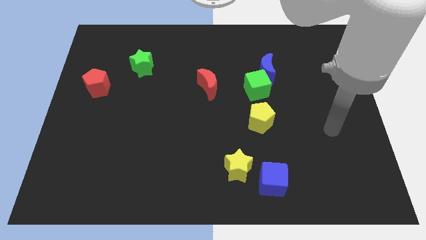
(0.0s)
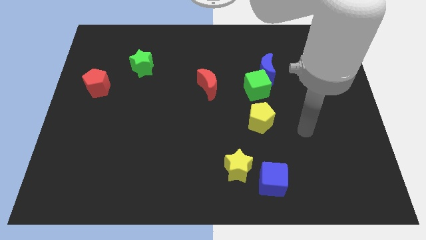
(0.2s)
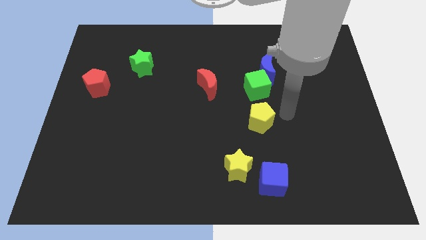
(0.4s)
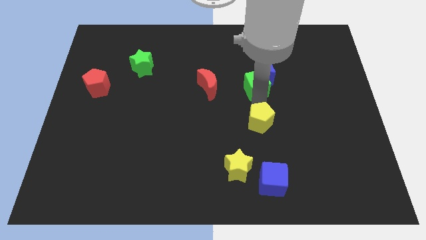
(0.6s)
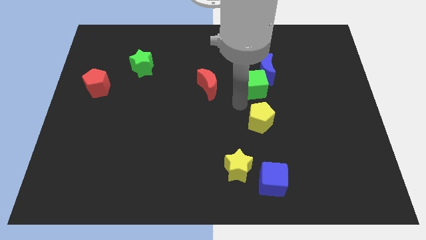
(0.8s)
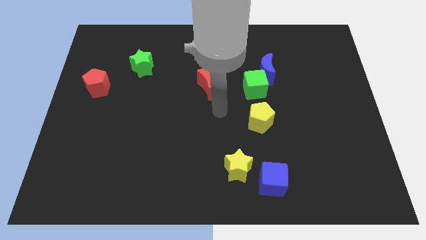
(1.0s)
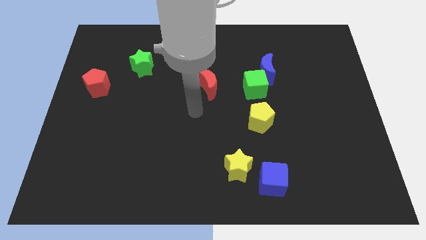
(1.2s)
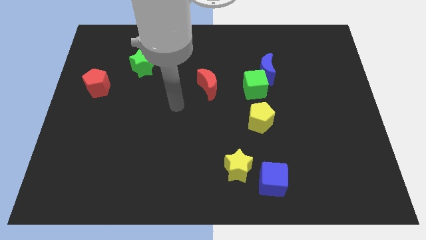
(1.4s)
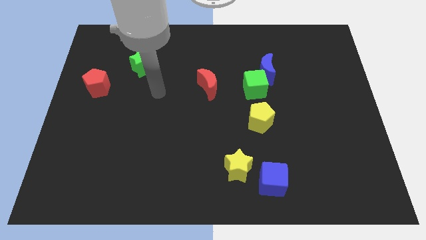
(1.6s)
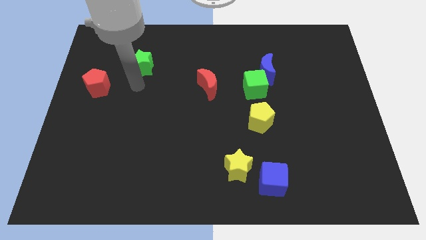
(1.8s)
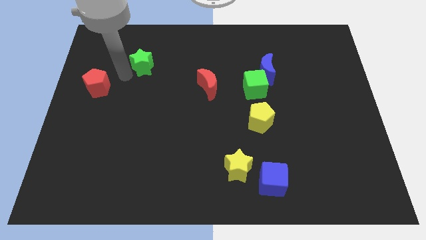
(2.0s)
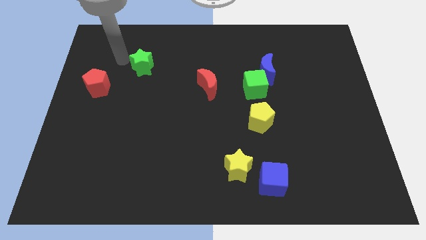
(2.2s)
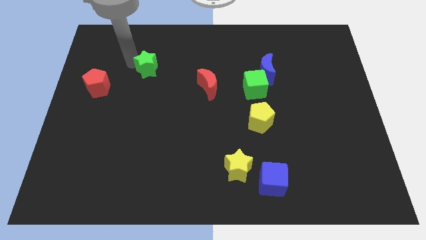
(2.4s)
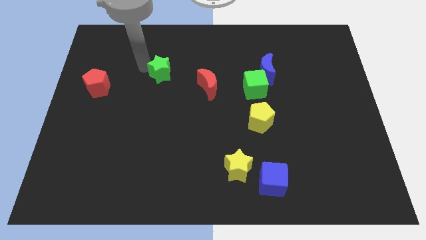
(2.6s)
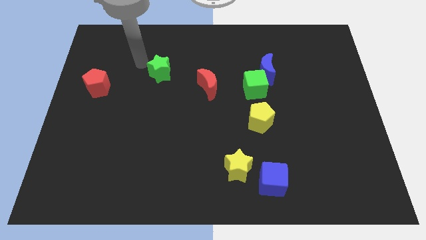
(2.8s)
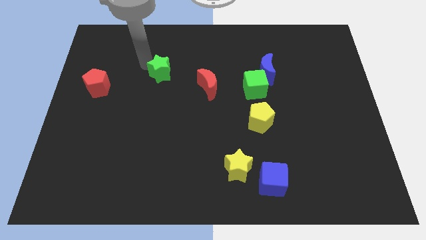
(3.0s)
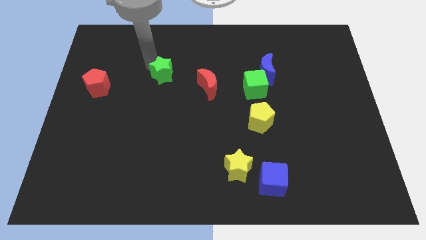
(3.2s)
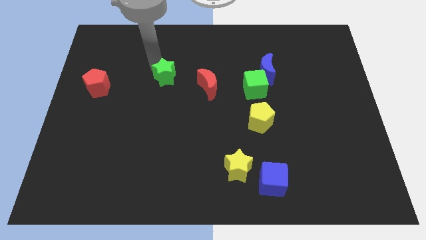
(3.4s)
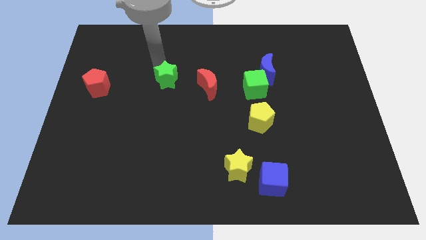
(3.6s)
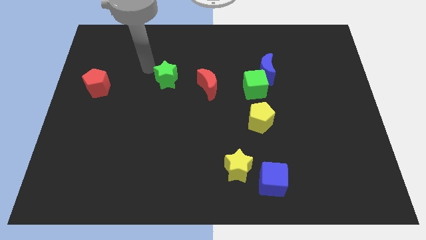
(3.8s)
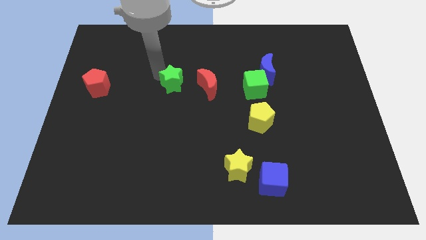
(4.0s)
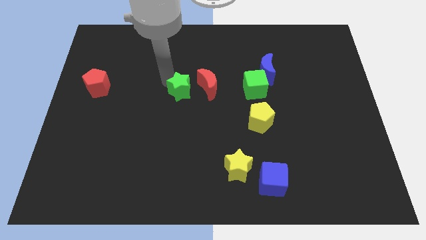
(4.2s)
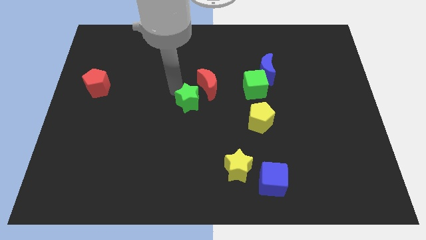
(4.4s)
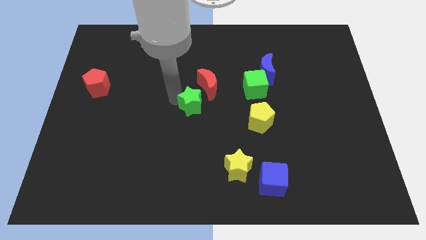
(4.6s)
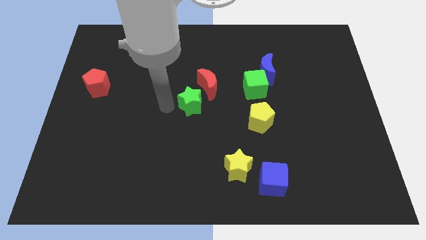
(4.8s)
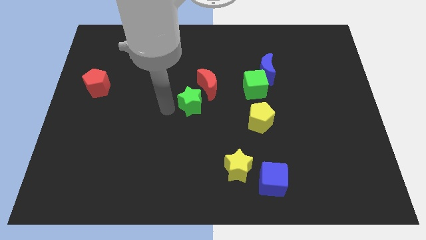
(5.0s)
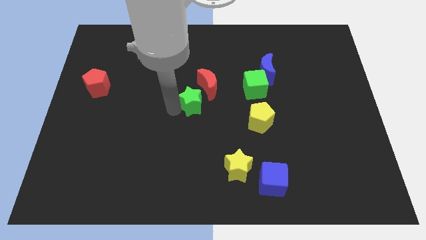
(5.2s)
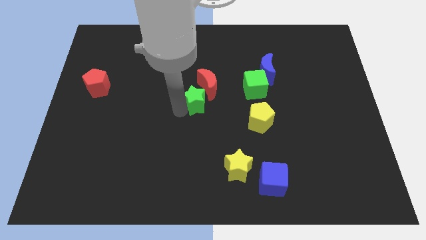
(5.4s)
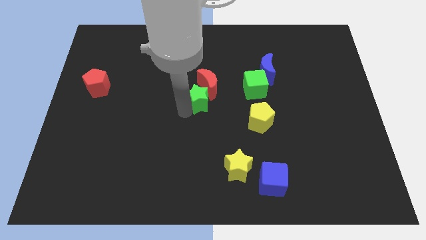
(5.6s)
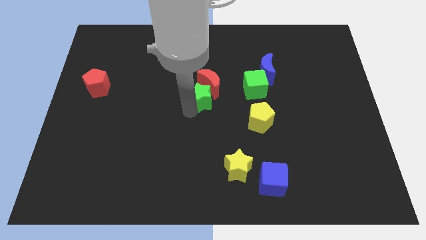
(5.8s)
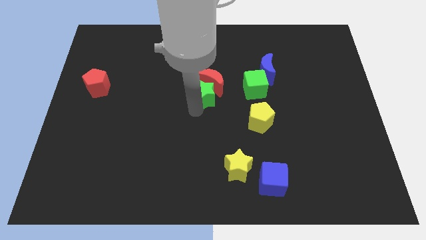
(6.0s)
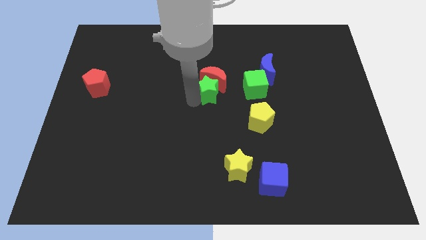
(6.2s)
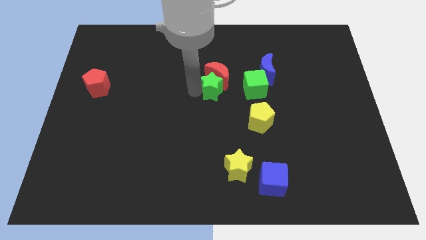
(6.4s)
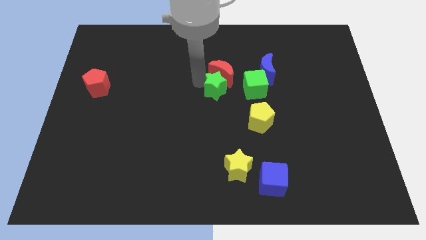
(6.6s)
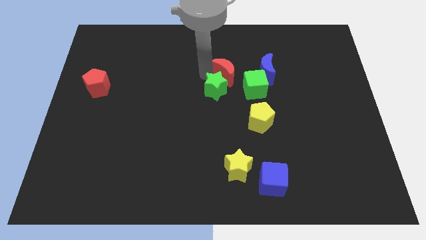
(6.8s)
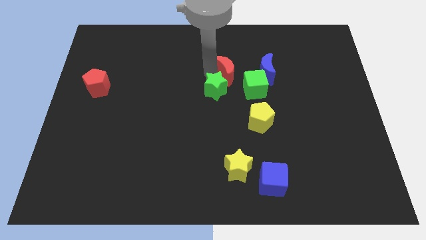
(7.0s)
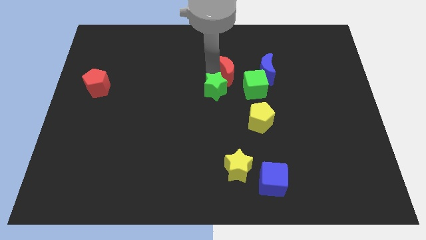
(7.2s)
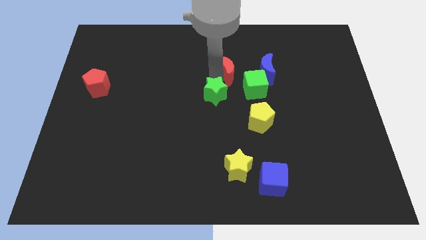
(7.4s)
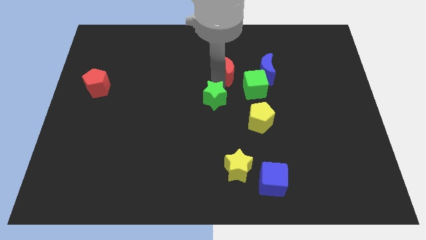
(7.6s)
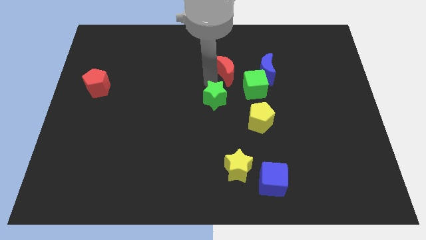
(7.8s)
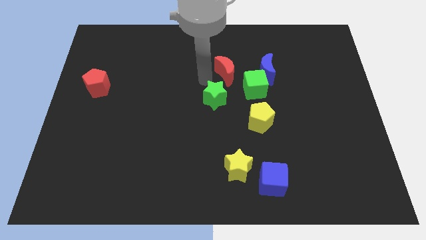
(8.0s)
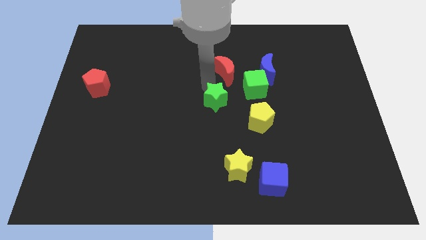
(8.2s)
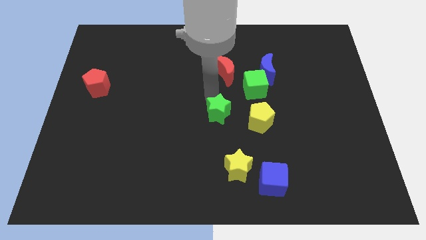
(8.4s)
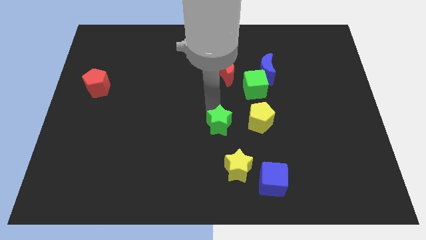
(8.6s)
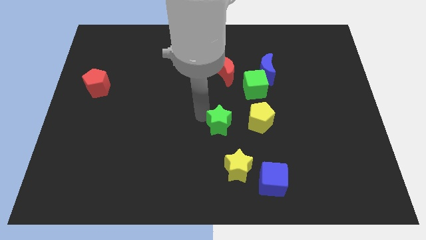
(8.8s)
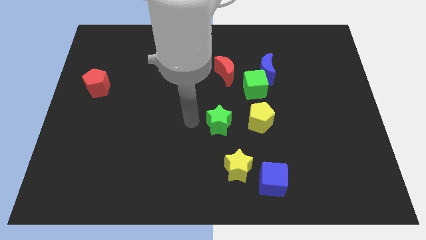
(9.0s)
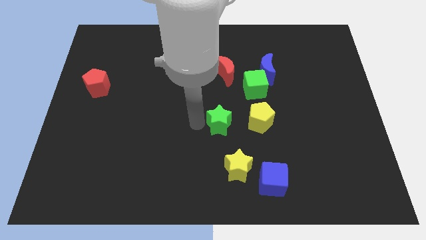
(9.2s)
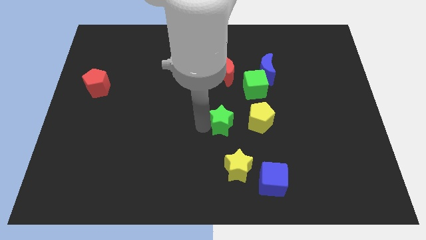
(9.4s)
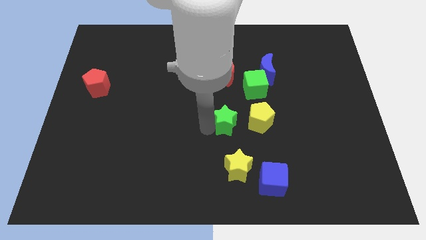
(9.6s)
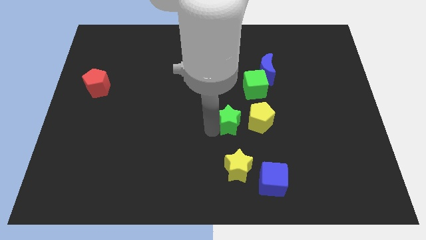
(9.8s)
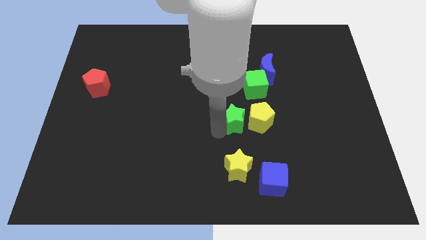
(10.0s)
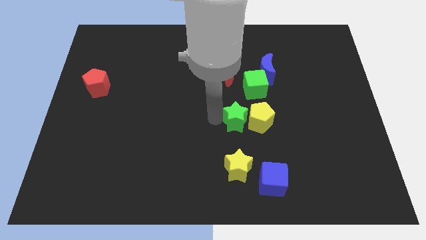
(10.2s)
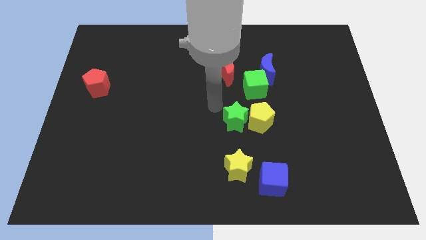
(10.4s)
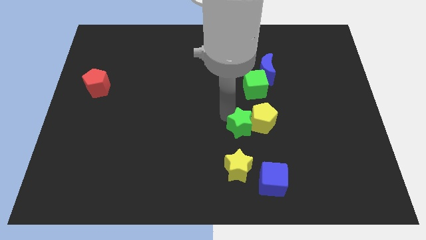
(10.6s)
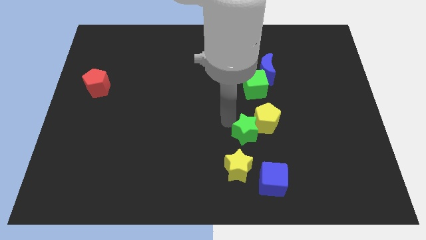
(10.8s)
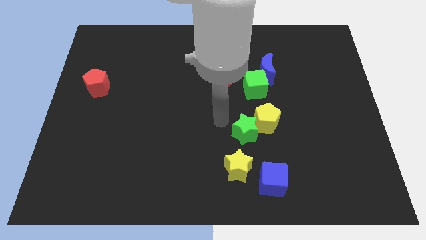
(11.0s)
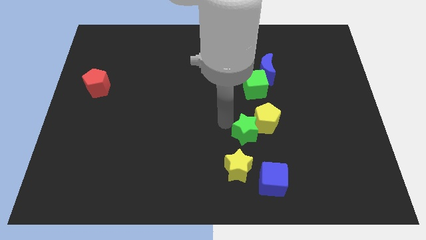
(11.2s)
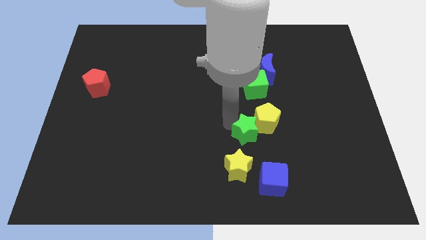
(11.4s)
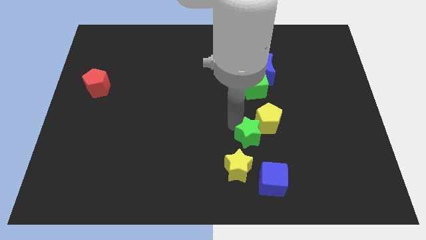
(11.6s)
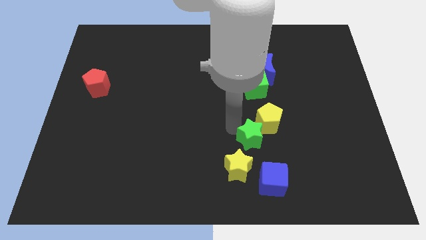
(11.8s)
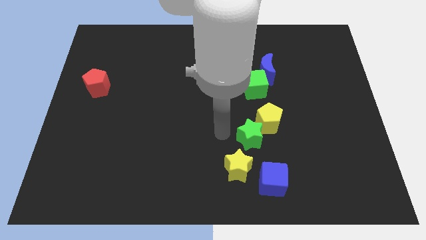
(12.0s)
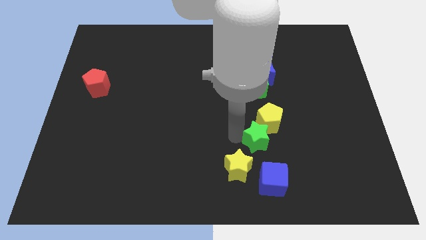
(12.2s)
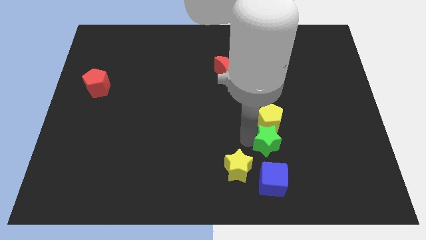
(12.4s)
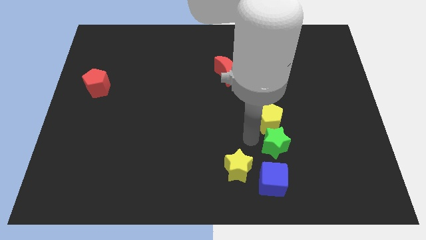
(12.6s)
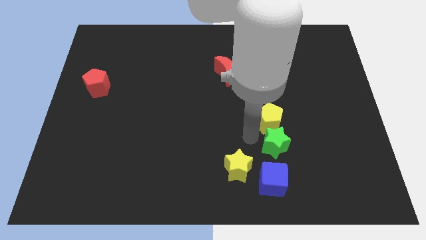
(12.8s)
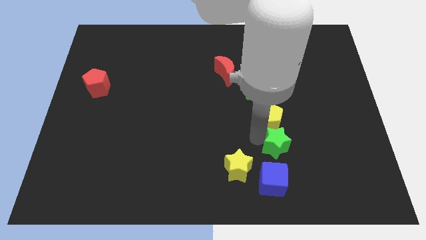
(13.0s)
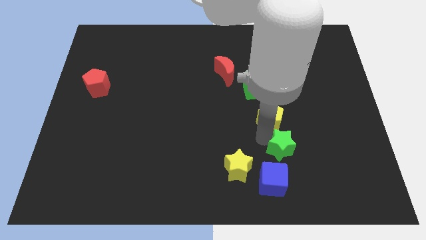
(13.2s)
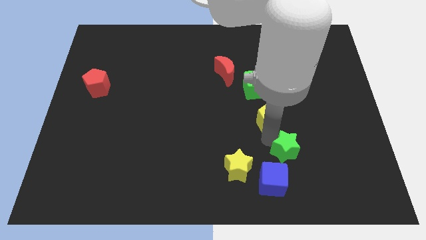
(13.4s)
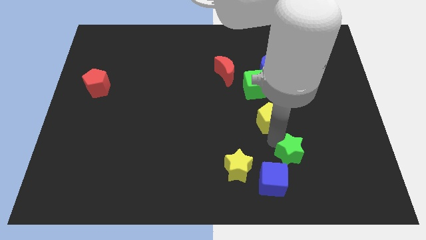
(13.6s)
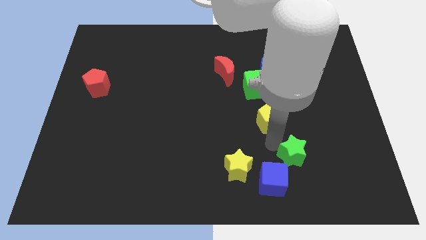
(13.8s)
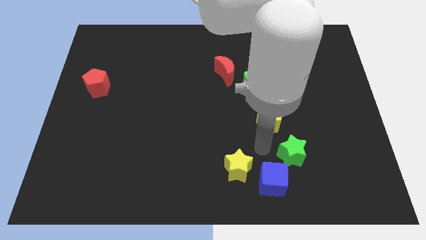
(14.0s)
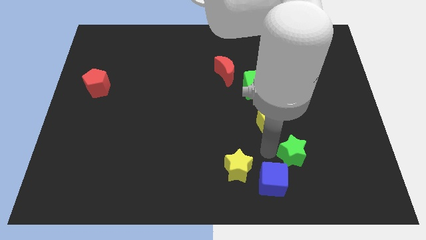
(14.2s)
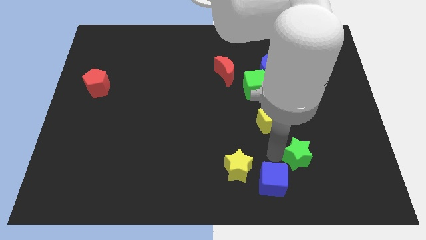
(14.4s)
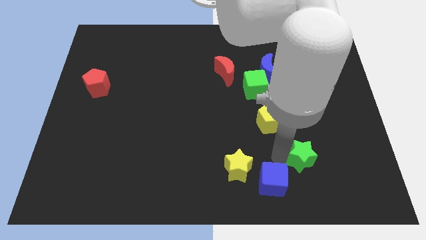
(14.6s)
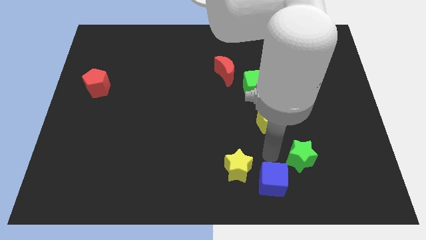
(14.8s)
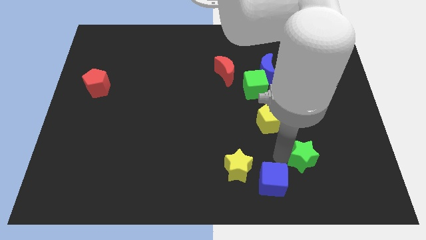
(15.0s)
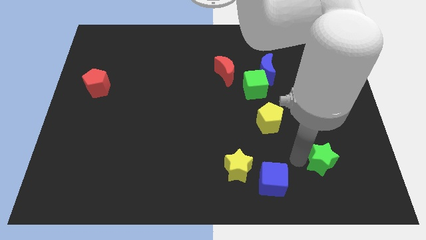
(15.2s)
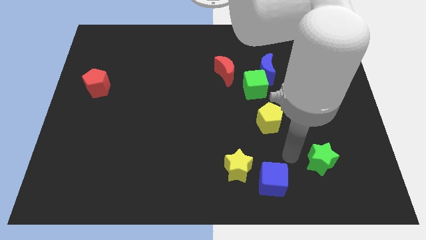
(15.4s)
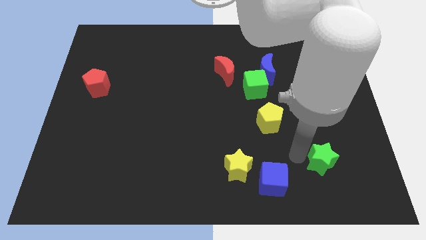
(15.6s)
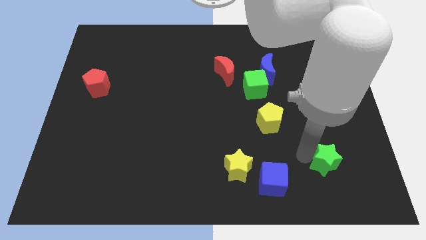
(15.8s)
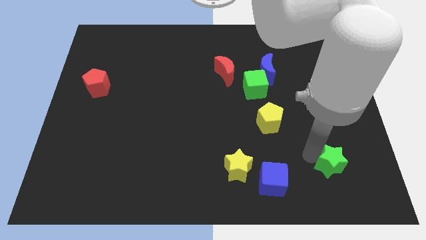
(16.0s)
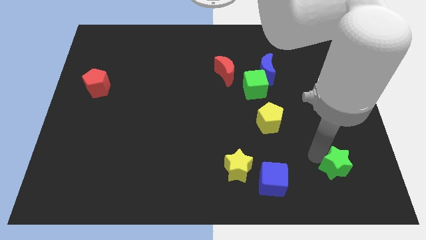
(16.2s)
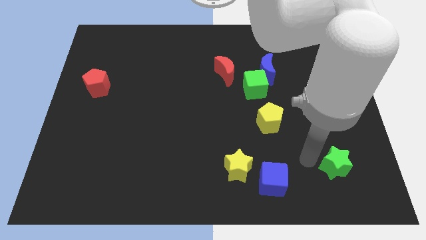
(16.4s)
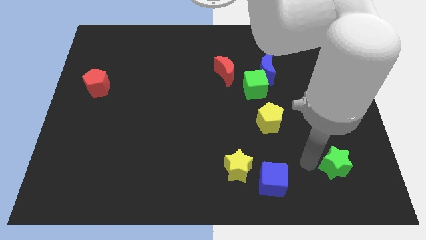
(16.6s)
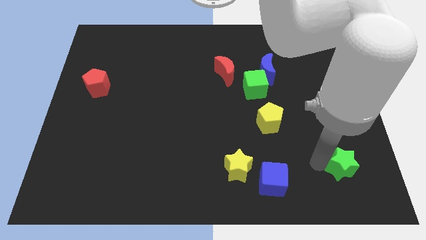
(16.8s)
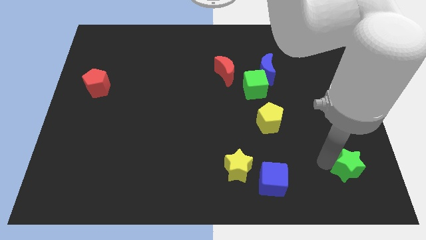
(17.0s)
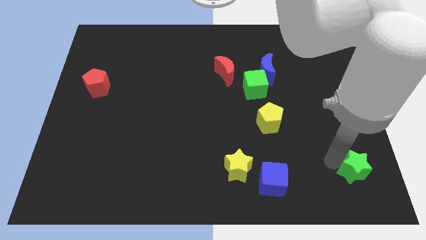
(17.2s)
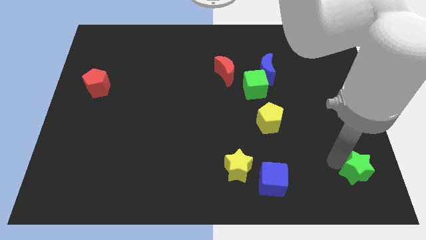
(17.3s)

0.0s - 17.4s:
slide the green star to the bottom right corner
